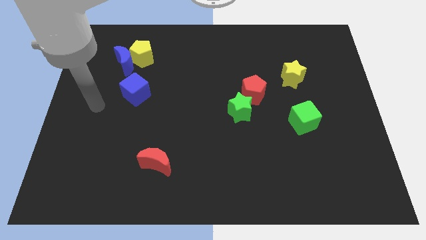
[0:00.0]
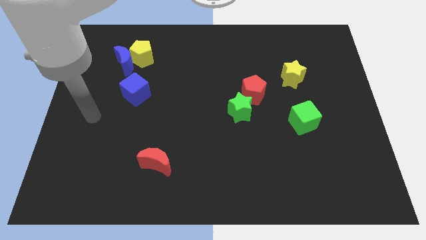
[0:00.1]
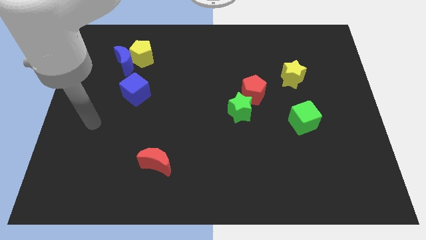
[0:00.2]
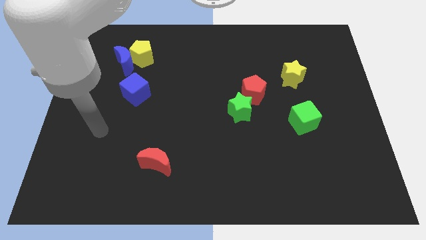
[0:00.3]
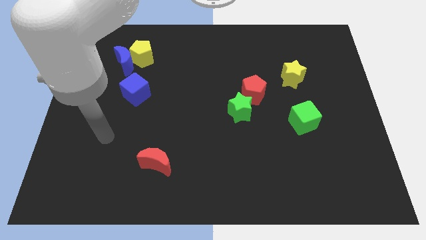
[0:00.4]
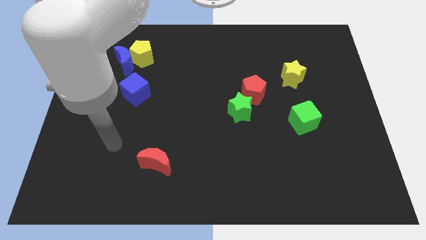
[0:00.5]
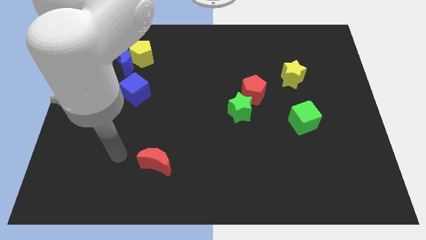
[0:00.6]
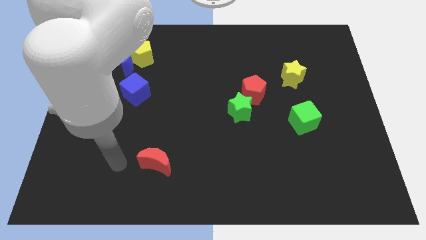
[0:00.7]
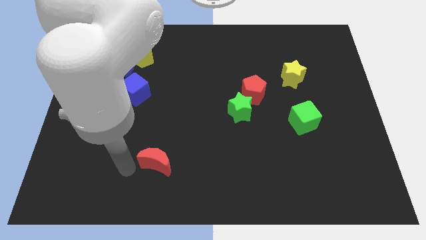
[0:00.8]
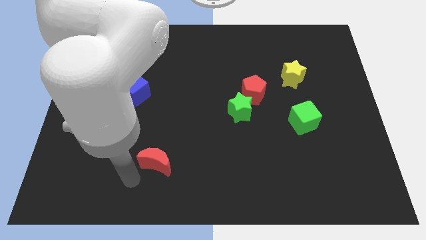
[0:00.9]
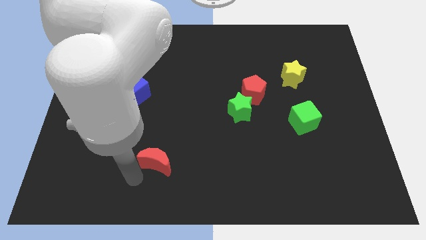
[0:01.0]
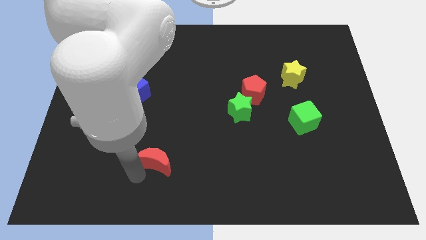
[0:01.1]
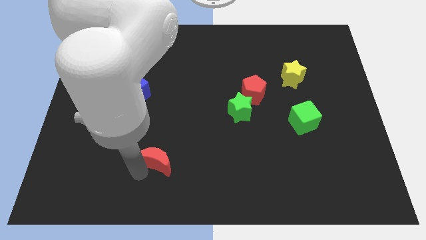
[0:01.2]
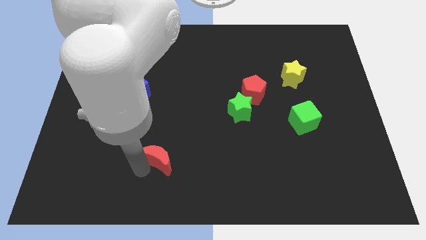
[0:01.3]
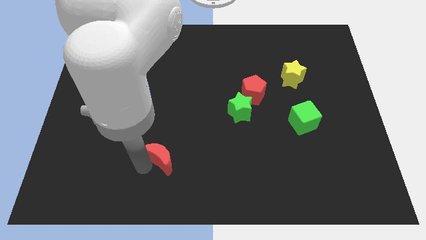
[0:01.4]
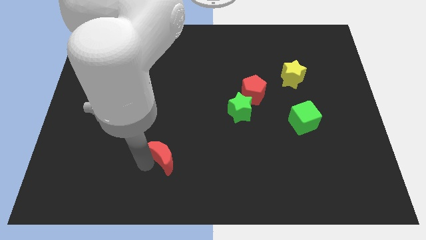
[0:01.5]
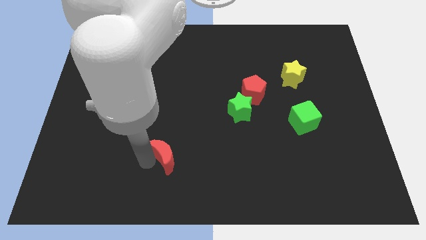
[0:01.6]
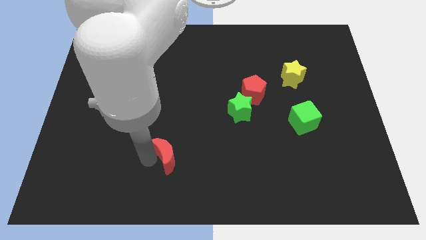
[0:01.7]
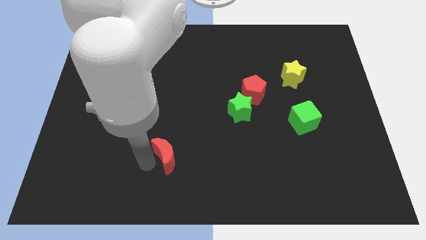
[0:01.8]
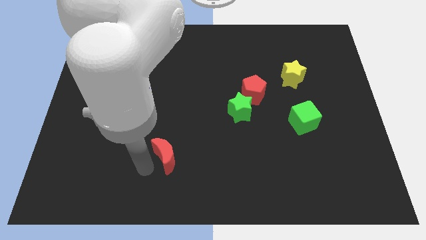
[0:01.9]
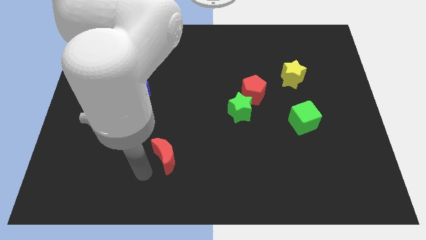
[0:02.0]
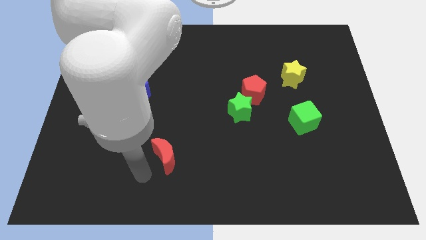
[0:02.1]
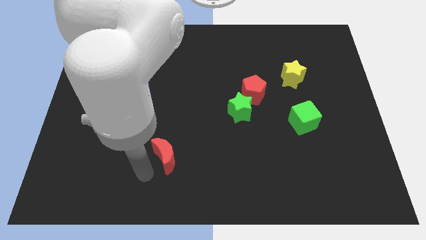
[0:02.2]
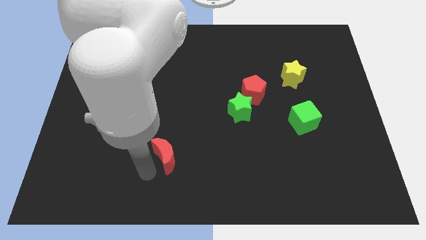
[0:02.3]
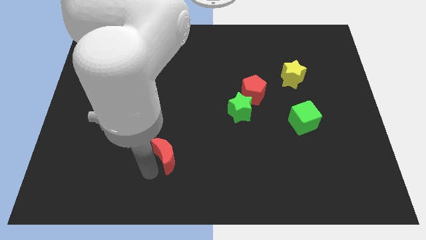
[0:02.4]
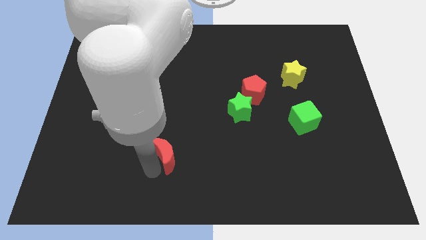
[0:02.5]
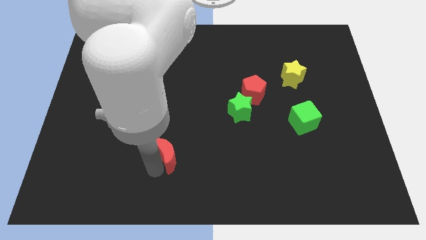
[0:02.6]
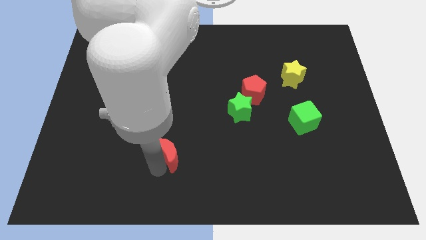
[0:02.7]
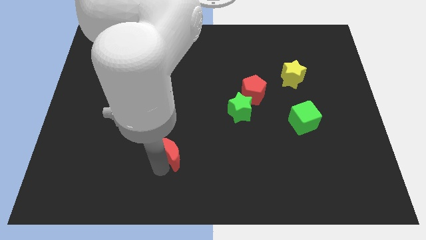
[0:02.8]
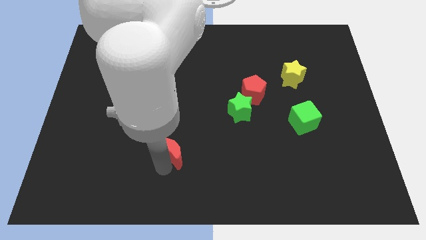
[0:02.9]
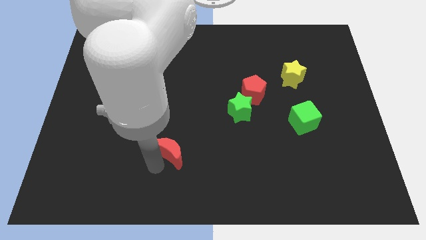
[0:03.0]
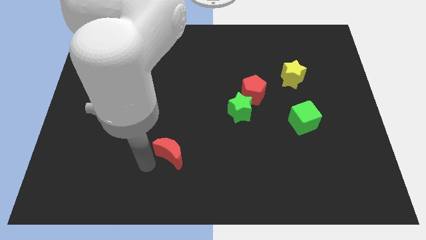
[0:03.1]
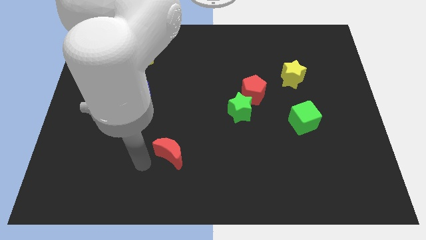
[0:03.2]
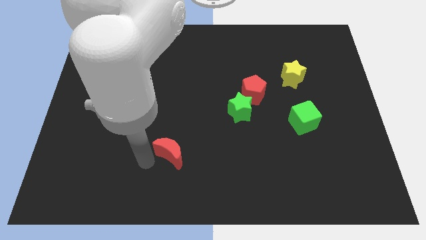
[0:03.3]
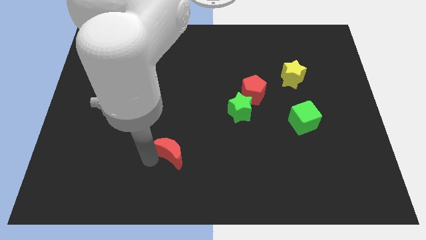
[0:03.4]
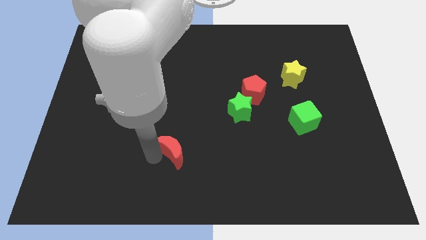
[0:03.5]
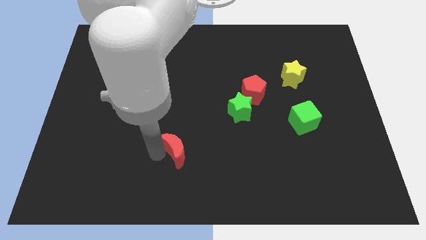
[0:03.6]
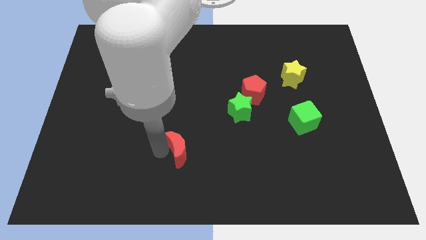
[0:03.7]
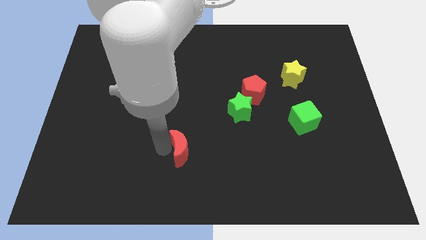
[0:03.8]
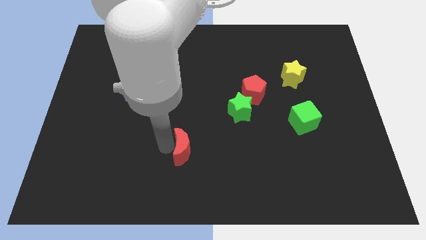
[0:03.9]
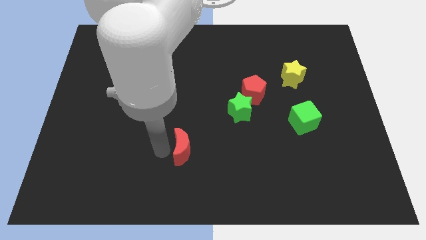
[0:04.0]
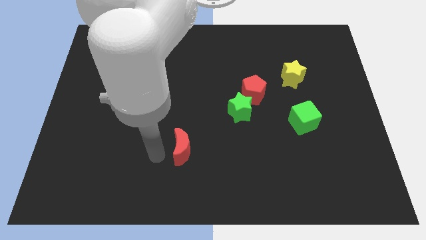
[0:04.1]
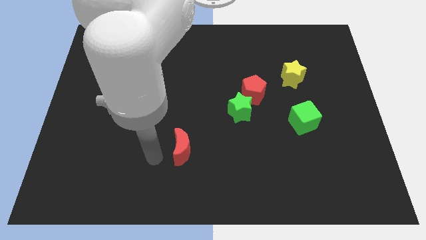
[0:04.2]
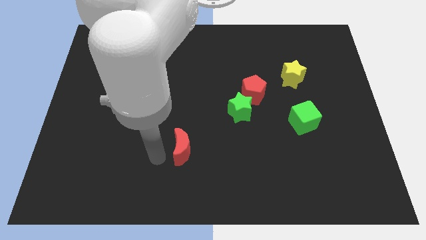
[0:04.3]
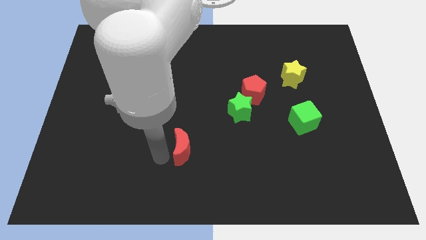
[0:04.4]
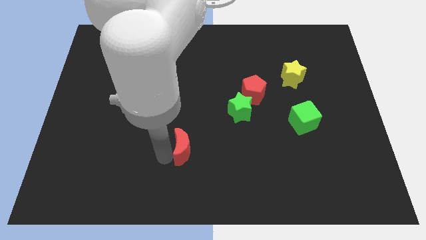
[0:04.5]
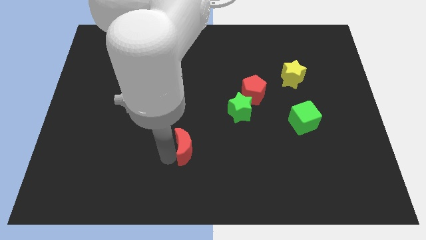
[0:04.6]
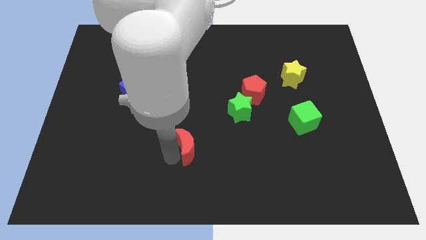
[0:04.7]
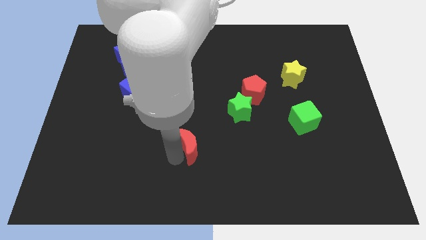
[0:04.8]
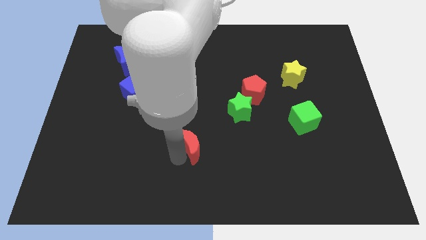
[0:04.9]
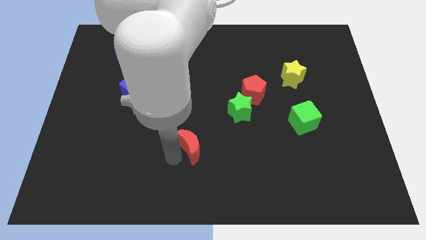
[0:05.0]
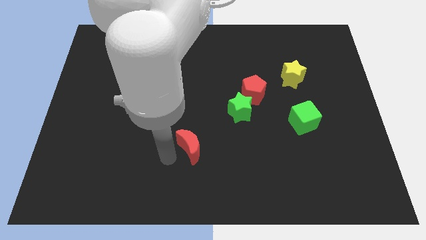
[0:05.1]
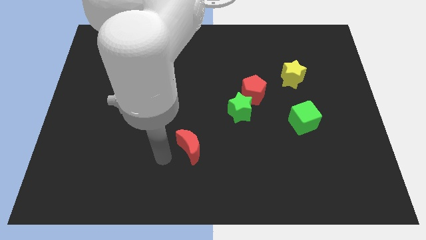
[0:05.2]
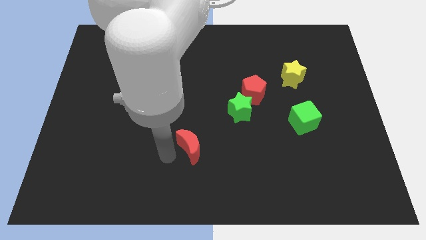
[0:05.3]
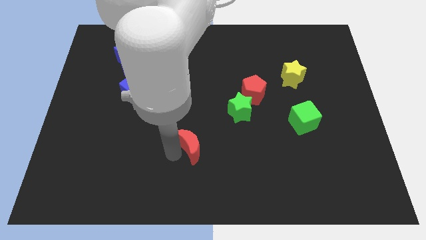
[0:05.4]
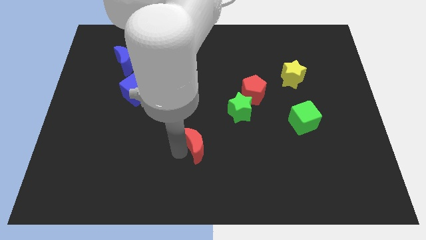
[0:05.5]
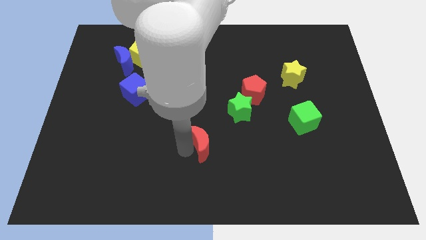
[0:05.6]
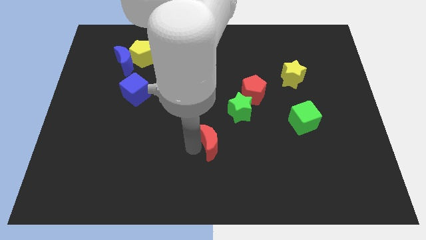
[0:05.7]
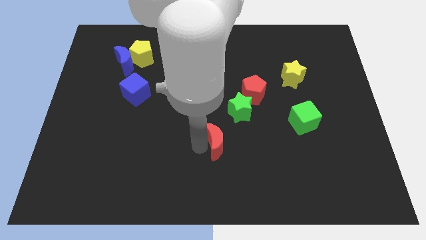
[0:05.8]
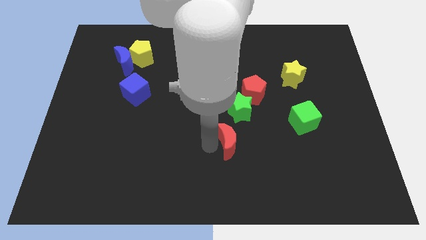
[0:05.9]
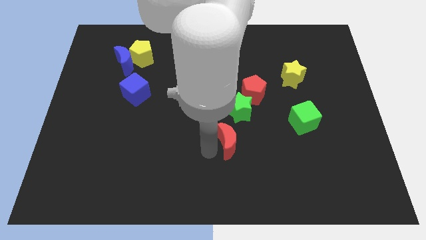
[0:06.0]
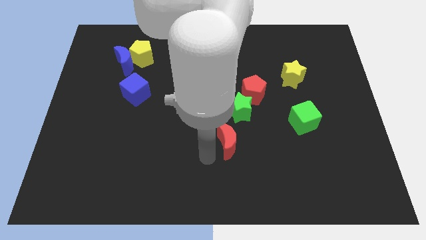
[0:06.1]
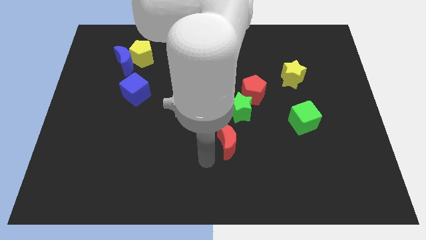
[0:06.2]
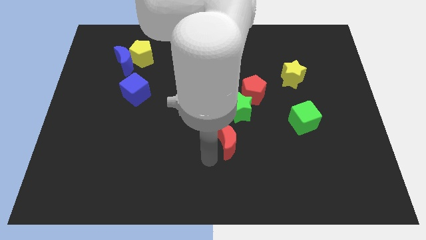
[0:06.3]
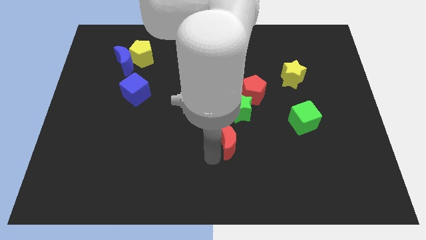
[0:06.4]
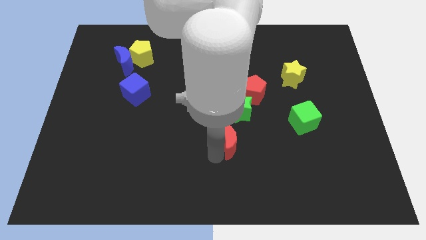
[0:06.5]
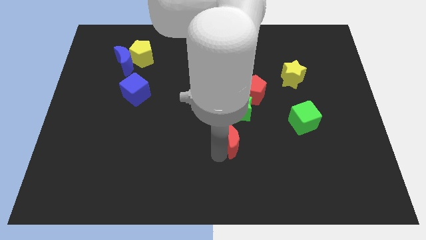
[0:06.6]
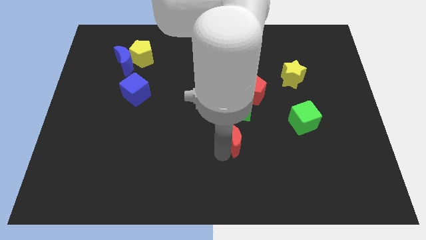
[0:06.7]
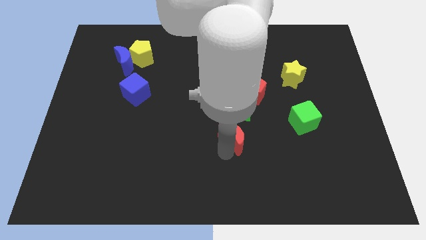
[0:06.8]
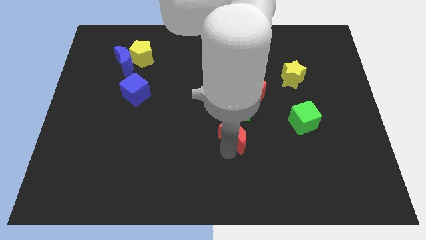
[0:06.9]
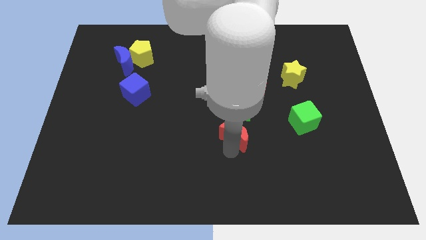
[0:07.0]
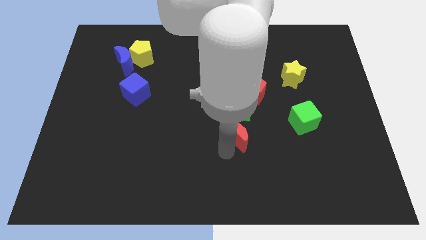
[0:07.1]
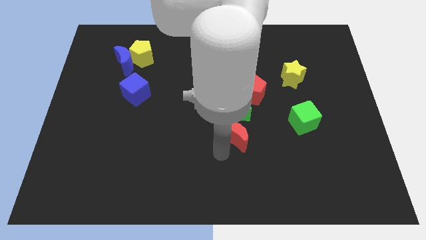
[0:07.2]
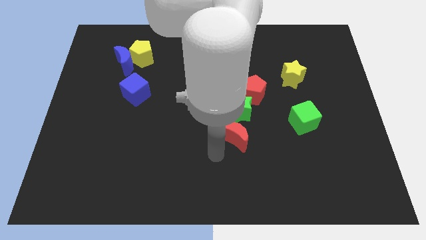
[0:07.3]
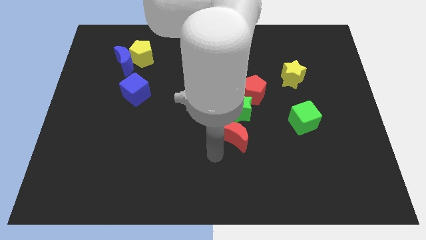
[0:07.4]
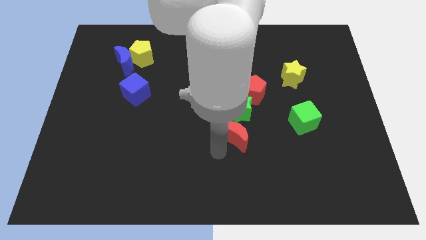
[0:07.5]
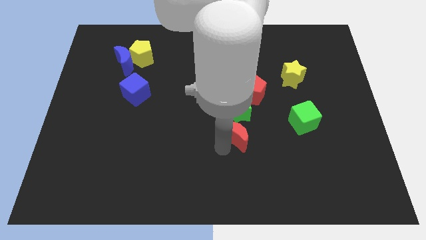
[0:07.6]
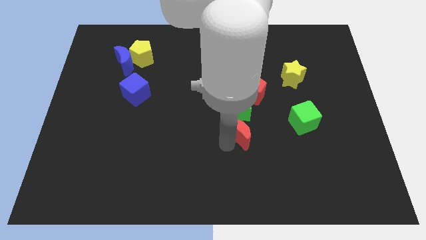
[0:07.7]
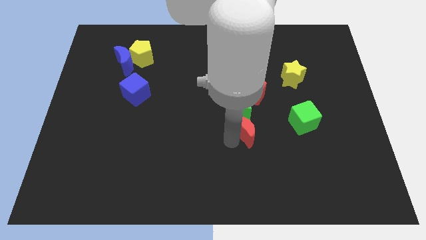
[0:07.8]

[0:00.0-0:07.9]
put the red moon diagonally down and to the right of the green star
